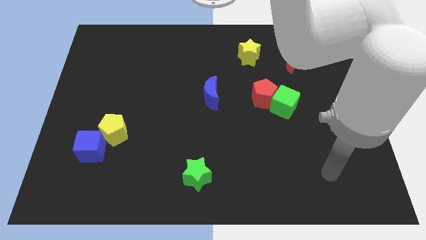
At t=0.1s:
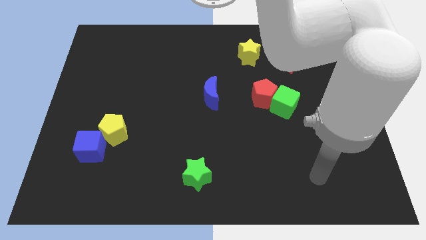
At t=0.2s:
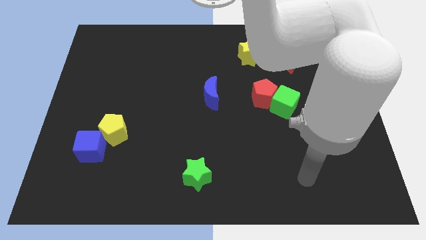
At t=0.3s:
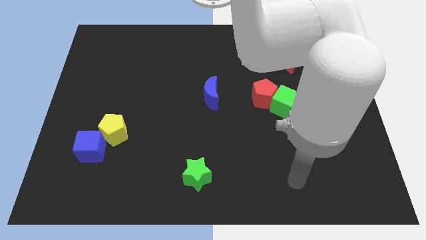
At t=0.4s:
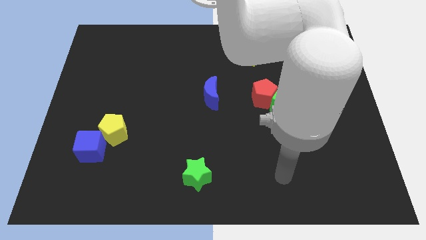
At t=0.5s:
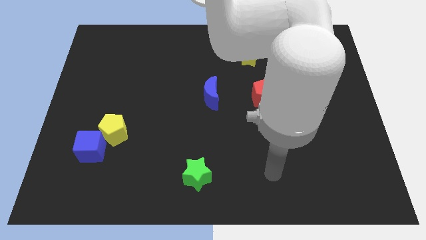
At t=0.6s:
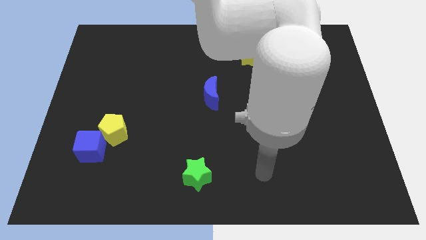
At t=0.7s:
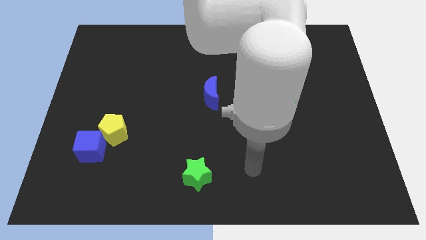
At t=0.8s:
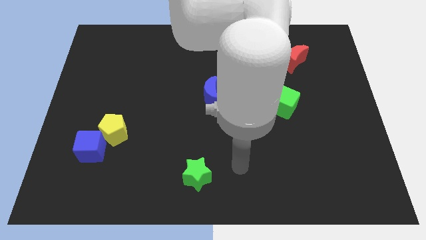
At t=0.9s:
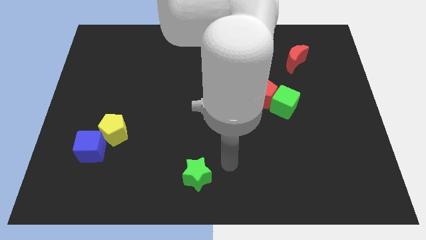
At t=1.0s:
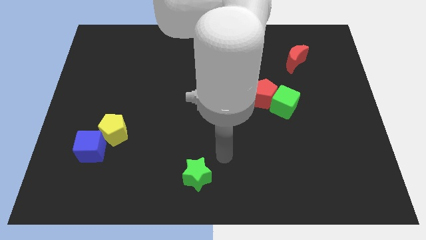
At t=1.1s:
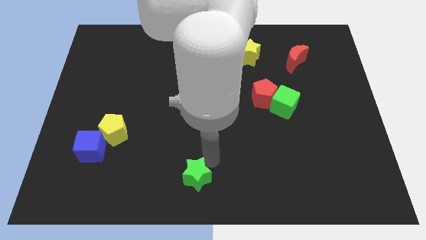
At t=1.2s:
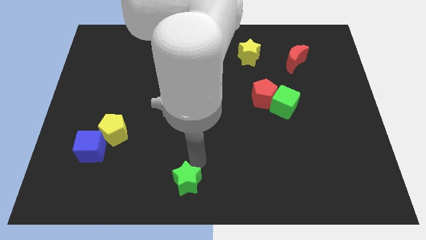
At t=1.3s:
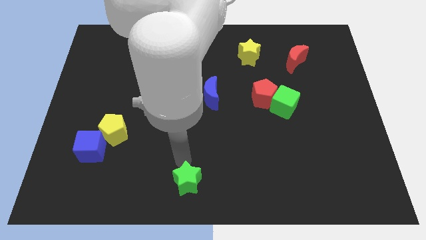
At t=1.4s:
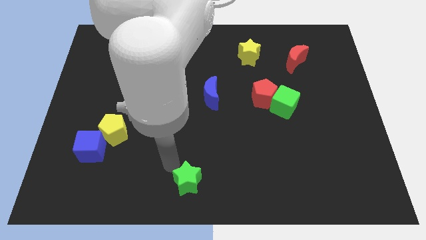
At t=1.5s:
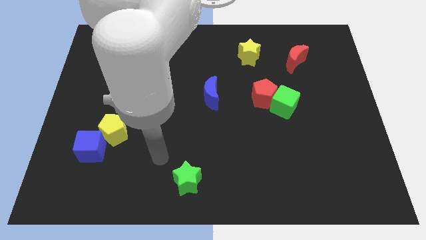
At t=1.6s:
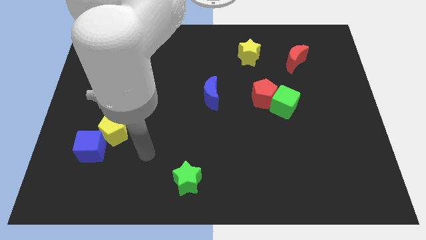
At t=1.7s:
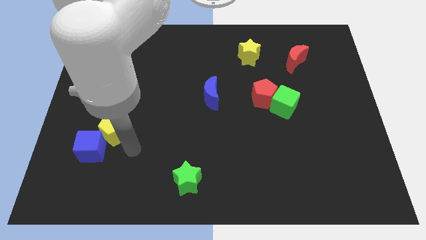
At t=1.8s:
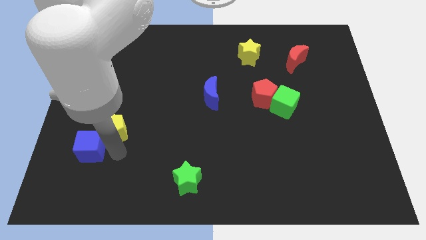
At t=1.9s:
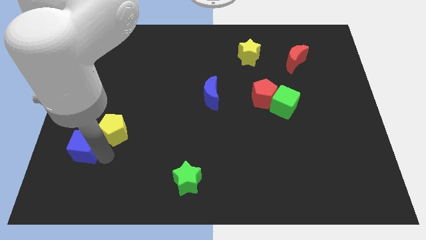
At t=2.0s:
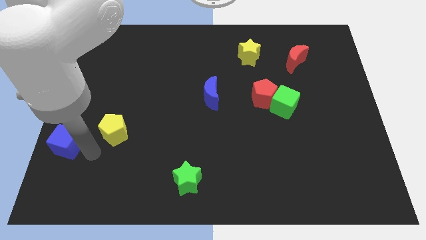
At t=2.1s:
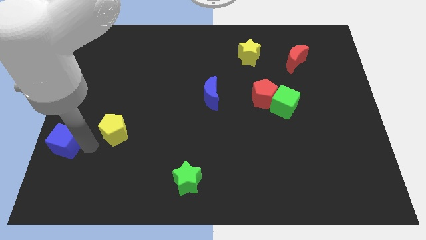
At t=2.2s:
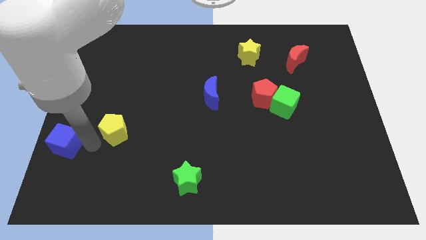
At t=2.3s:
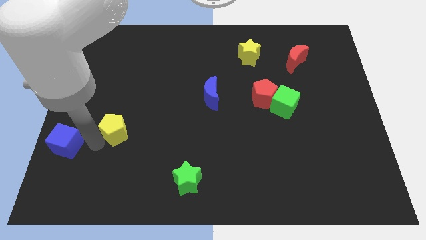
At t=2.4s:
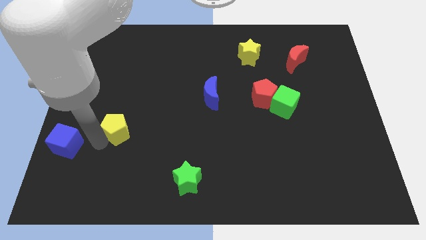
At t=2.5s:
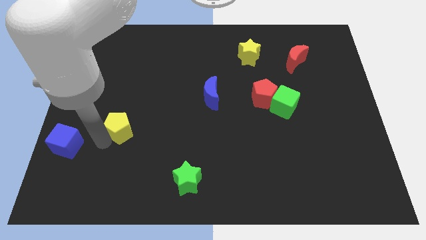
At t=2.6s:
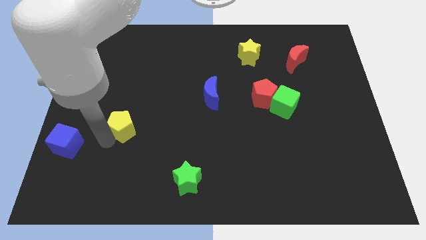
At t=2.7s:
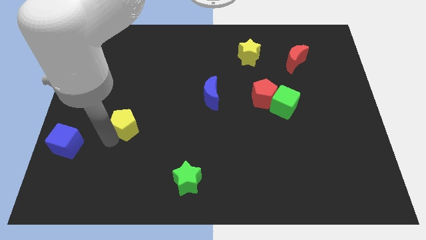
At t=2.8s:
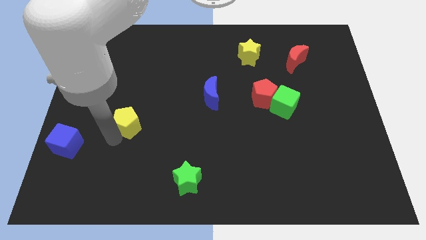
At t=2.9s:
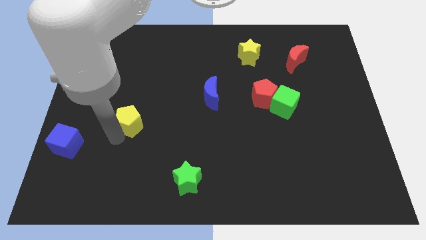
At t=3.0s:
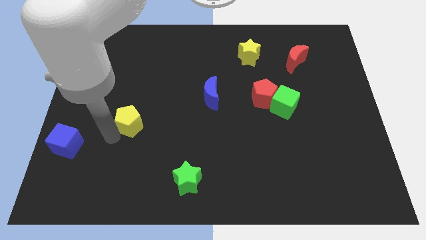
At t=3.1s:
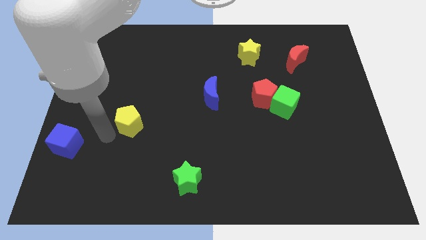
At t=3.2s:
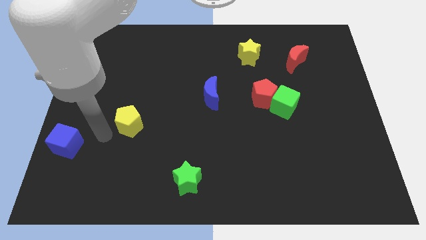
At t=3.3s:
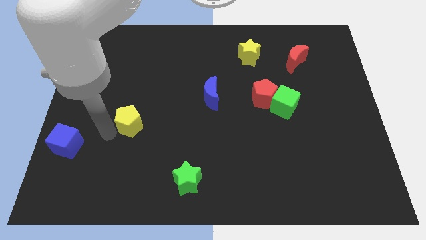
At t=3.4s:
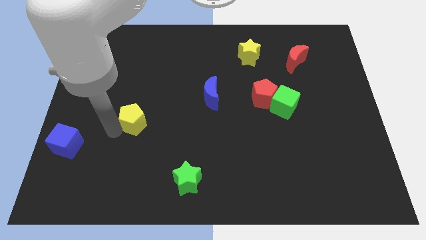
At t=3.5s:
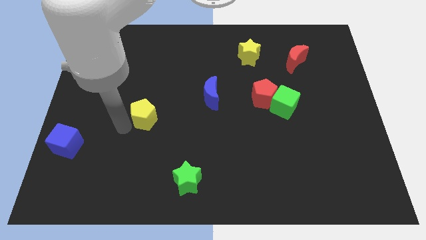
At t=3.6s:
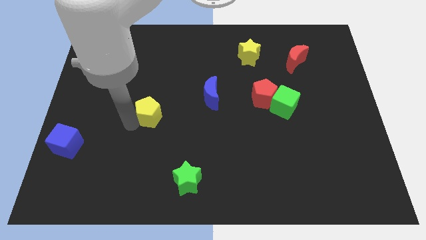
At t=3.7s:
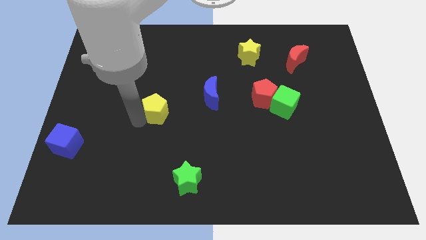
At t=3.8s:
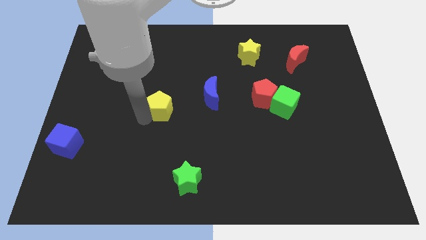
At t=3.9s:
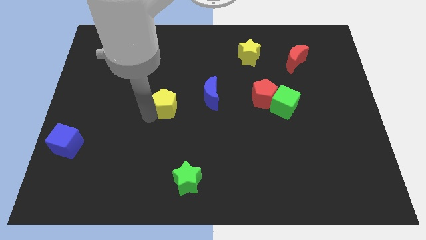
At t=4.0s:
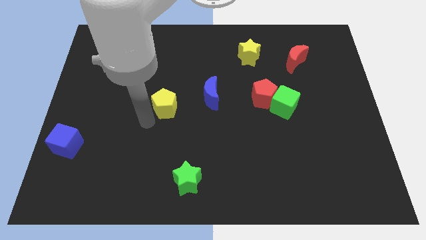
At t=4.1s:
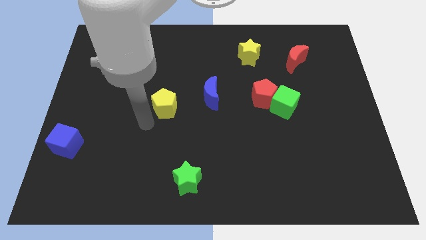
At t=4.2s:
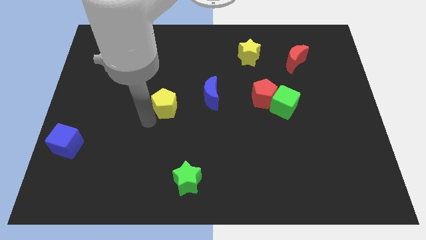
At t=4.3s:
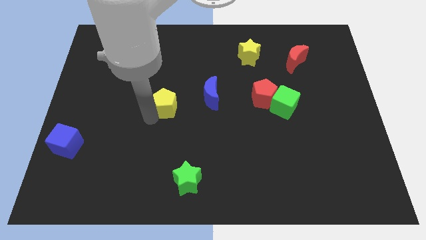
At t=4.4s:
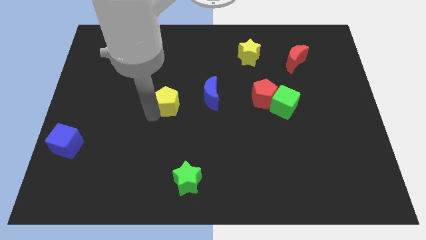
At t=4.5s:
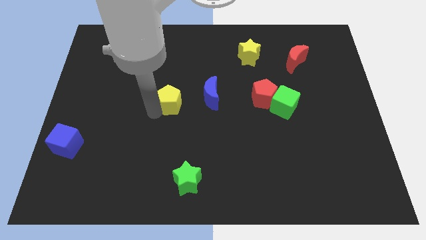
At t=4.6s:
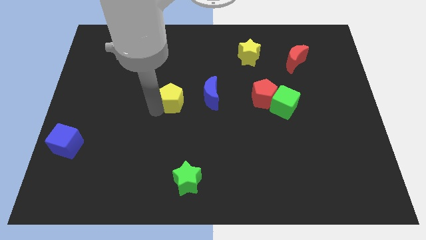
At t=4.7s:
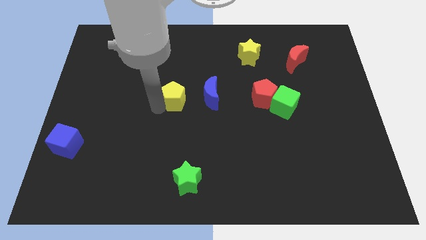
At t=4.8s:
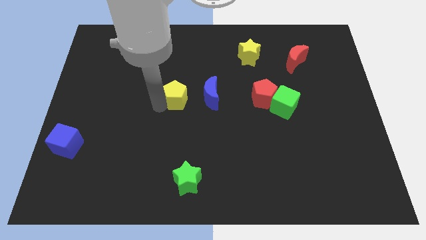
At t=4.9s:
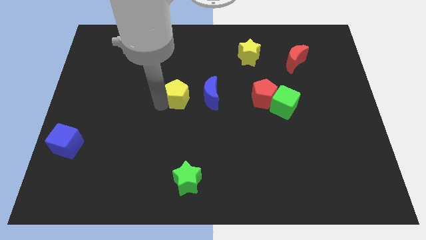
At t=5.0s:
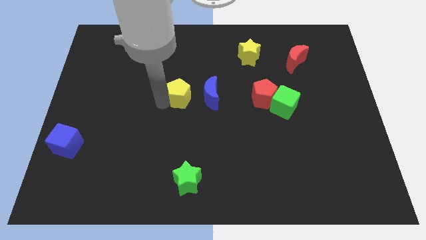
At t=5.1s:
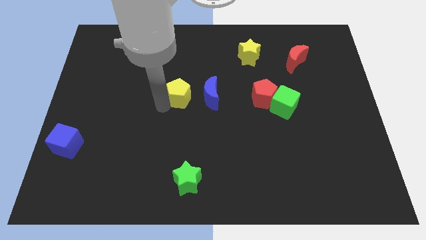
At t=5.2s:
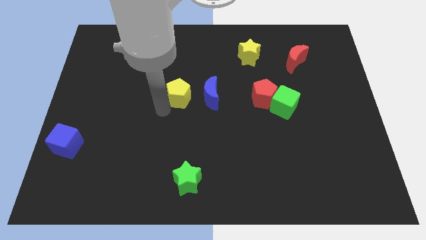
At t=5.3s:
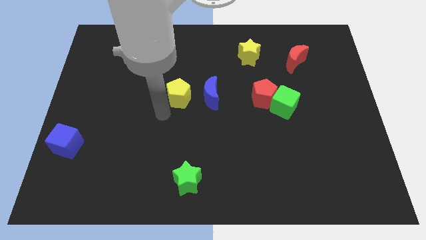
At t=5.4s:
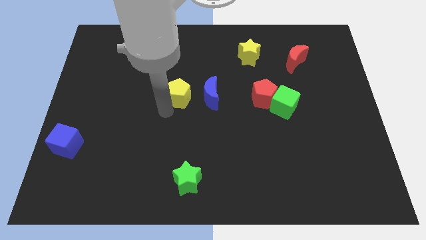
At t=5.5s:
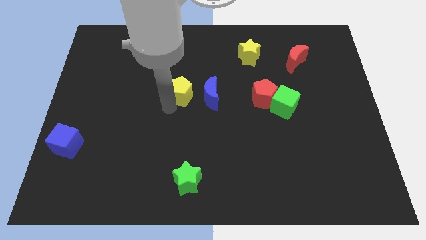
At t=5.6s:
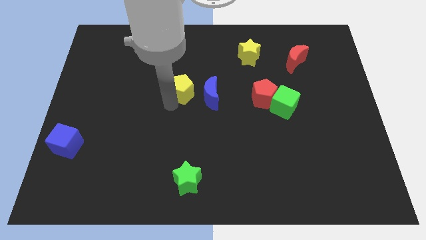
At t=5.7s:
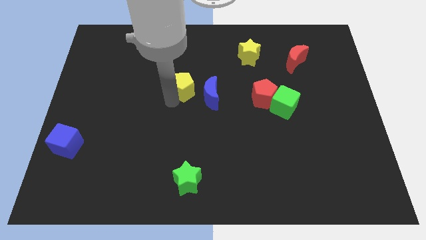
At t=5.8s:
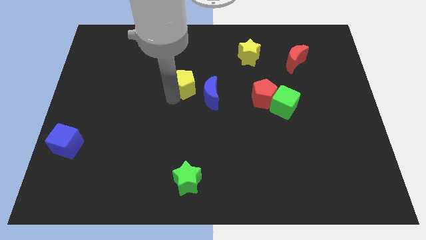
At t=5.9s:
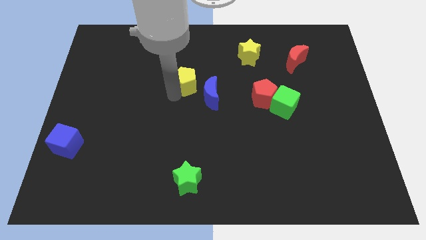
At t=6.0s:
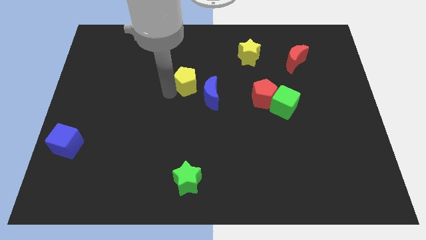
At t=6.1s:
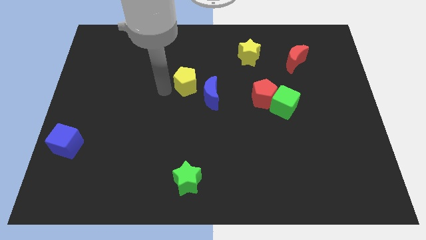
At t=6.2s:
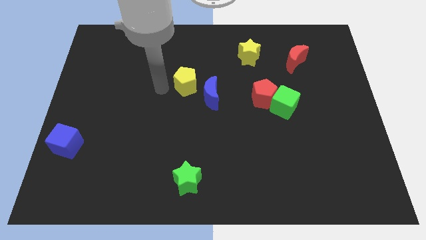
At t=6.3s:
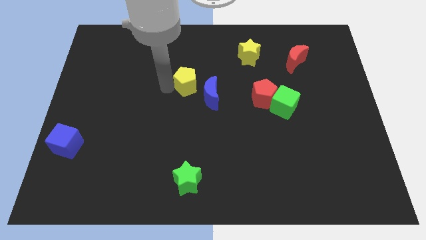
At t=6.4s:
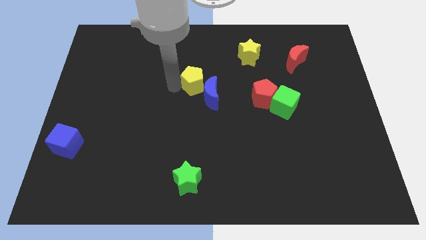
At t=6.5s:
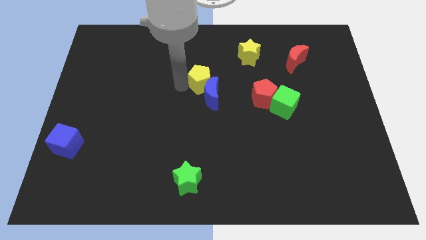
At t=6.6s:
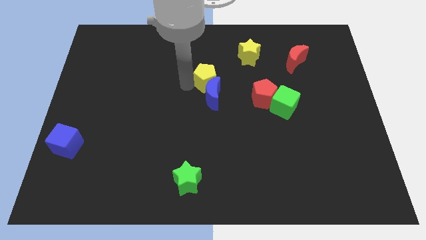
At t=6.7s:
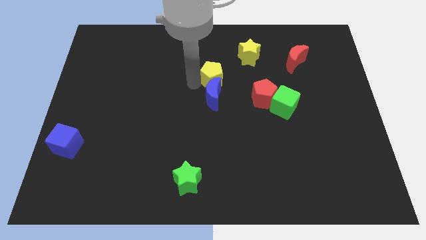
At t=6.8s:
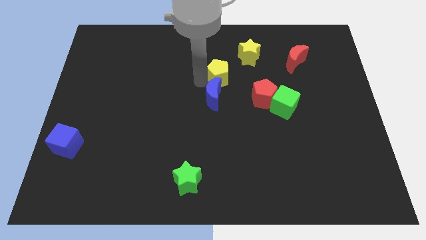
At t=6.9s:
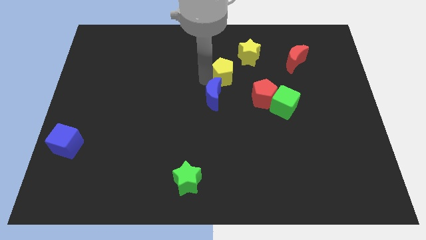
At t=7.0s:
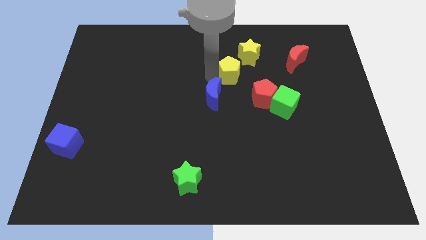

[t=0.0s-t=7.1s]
push the yellow pentagon to the bottom side of the yellow star

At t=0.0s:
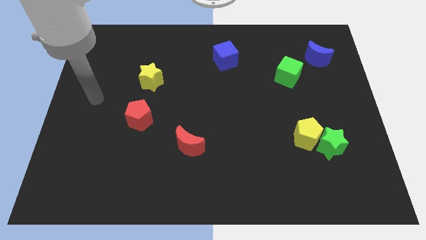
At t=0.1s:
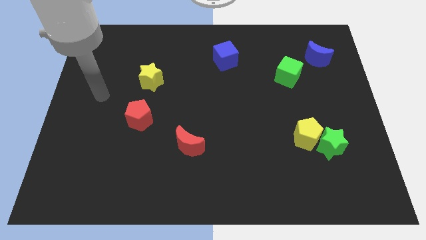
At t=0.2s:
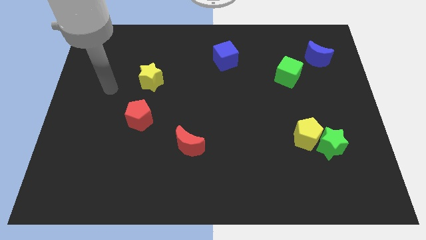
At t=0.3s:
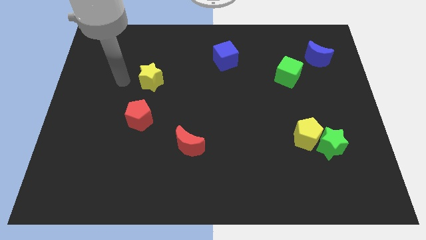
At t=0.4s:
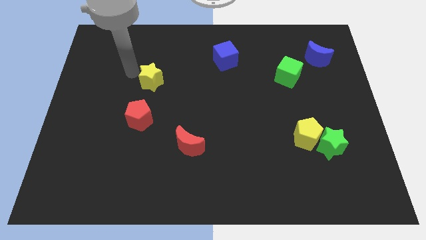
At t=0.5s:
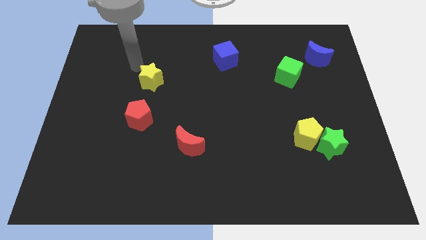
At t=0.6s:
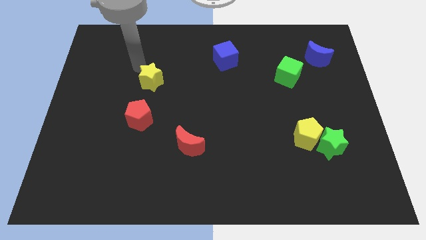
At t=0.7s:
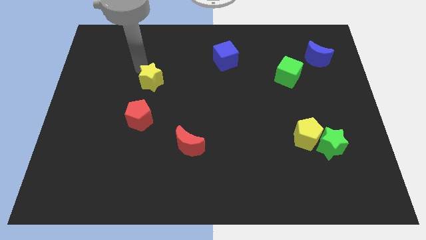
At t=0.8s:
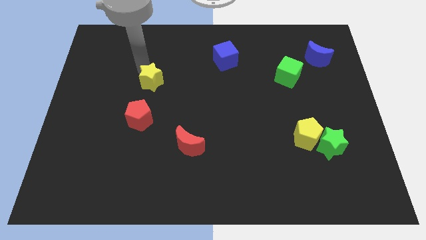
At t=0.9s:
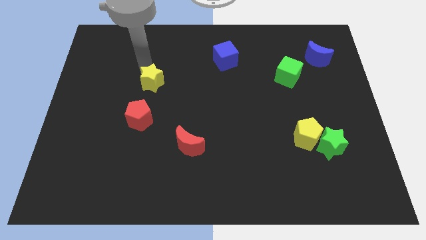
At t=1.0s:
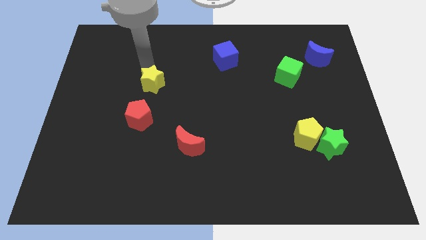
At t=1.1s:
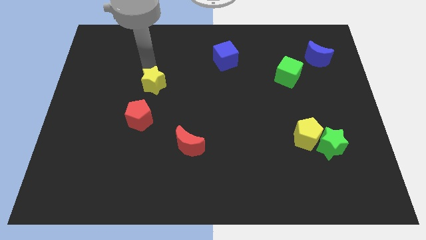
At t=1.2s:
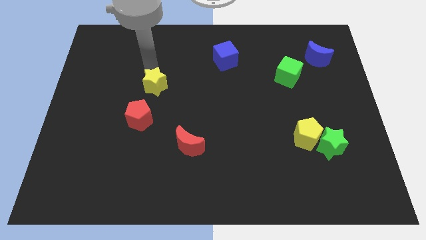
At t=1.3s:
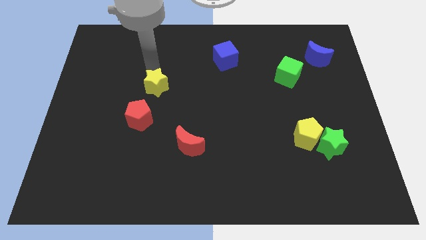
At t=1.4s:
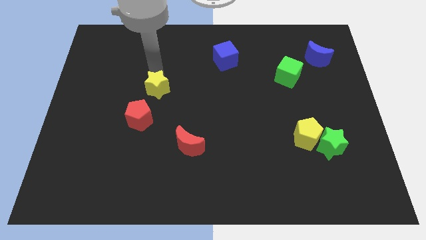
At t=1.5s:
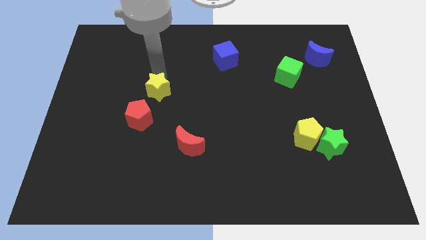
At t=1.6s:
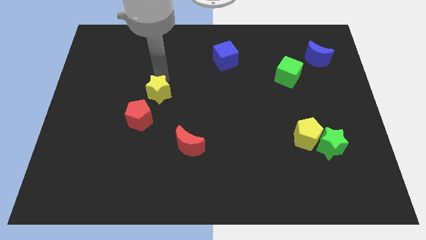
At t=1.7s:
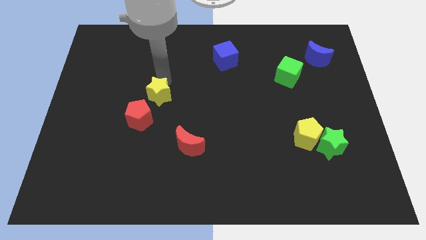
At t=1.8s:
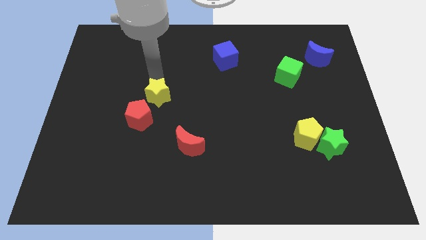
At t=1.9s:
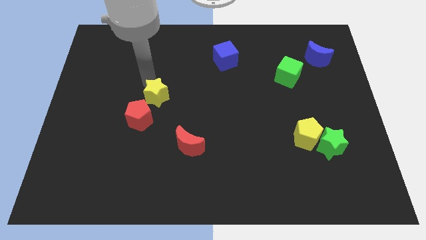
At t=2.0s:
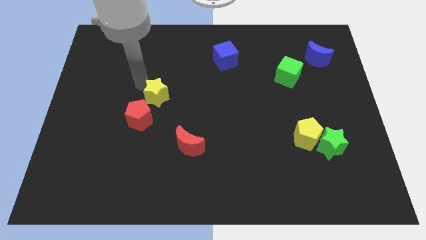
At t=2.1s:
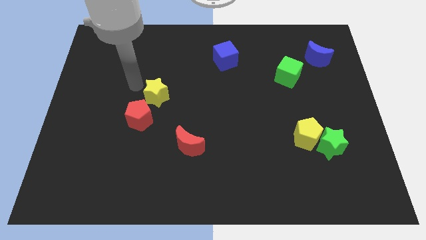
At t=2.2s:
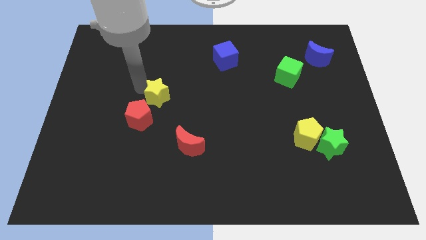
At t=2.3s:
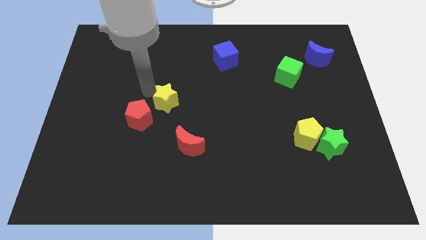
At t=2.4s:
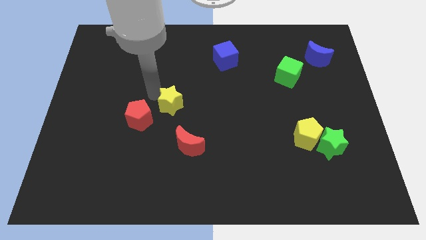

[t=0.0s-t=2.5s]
push the yellow star to the top side of the red moon
